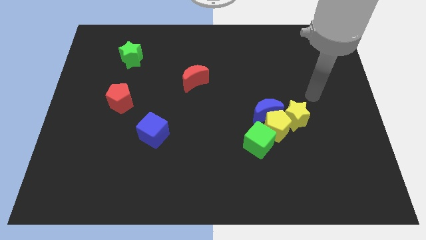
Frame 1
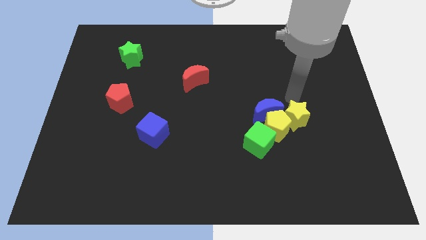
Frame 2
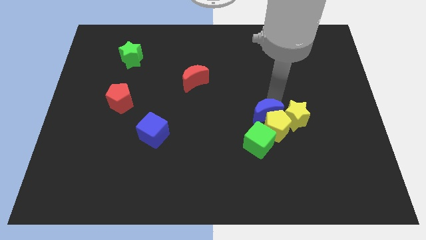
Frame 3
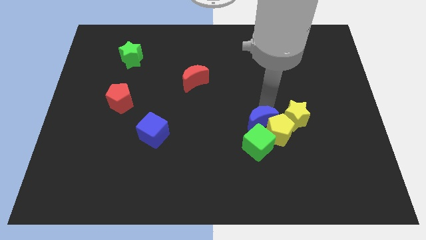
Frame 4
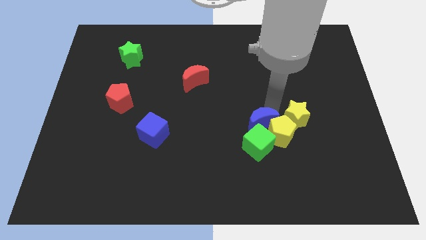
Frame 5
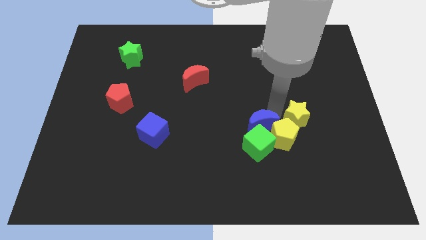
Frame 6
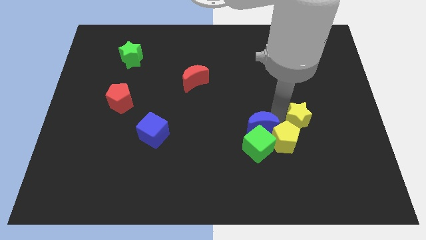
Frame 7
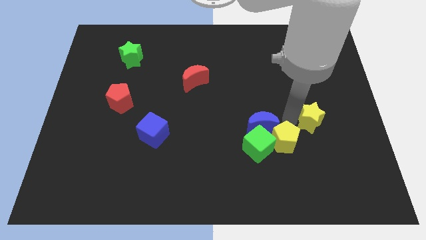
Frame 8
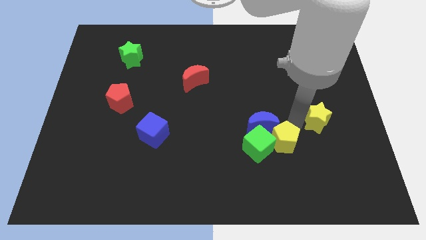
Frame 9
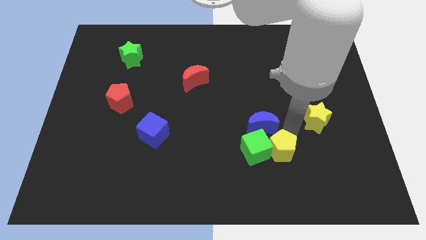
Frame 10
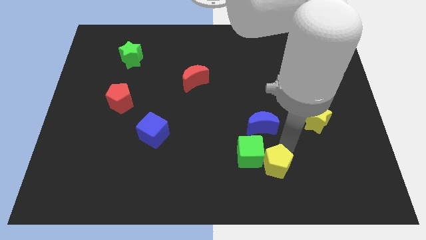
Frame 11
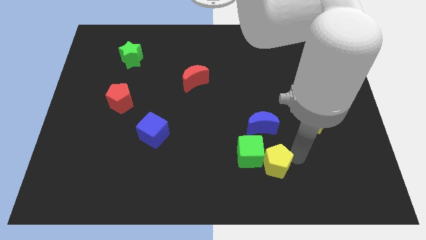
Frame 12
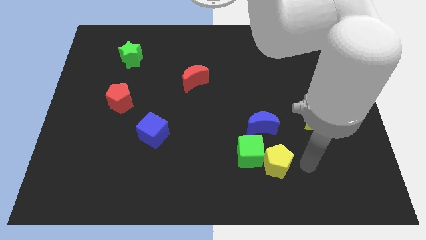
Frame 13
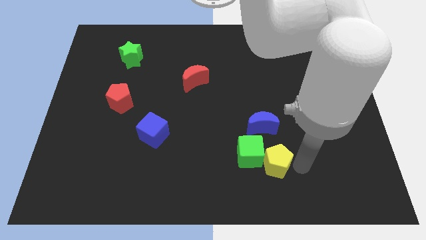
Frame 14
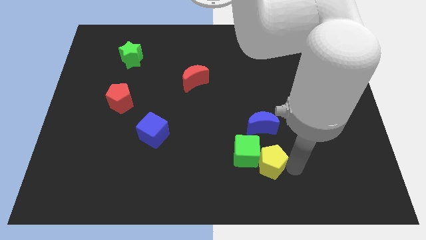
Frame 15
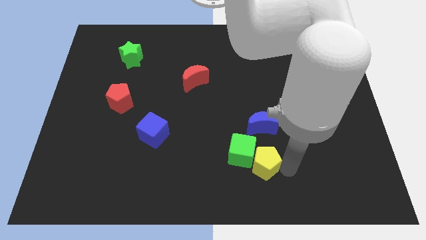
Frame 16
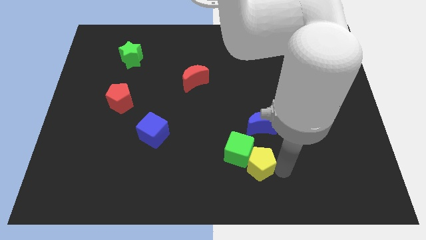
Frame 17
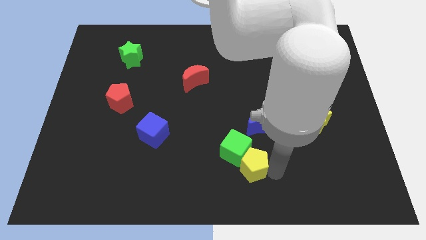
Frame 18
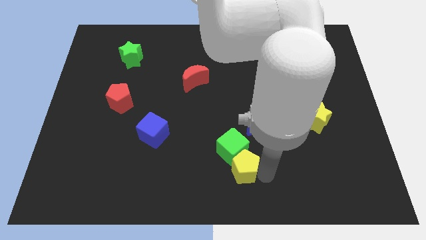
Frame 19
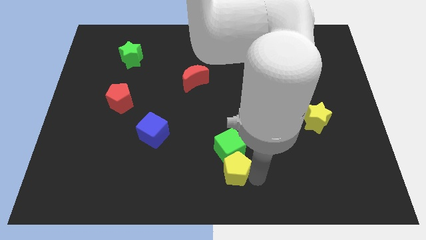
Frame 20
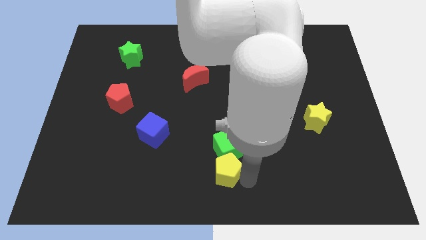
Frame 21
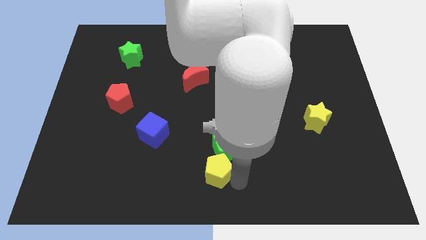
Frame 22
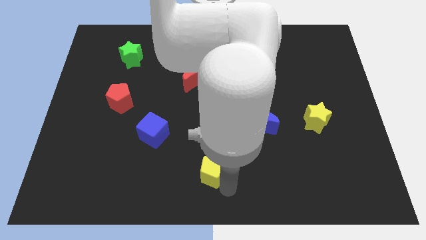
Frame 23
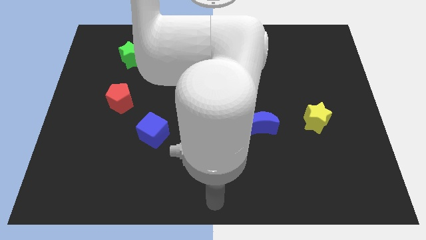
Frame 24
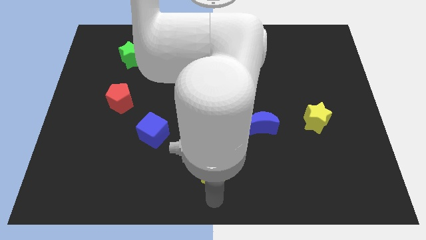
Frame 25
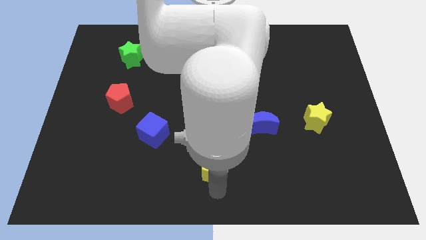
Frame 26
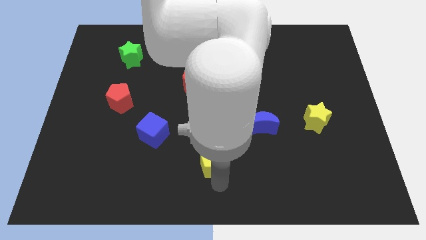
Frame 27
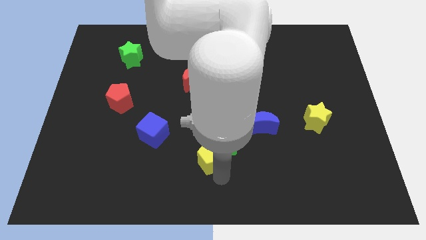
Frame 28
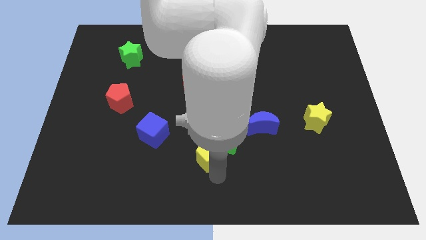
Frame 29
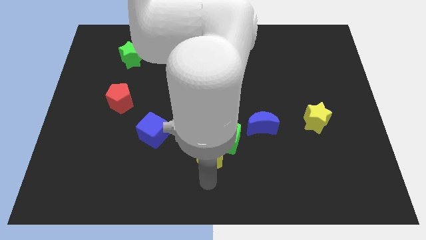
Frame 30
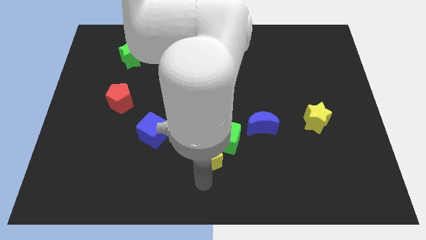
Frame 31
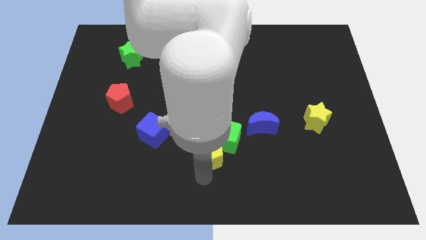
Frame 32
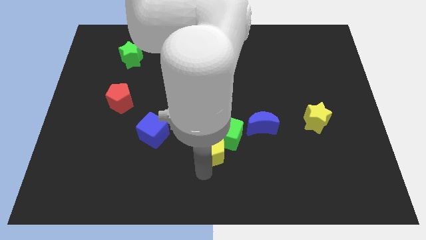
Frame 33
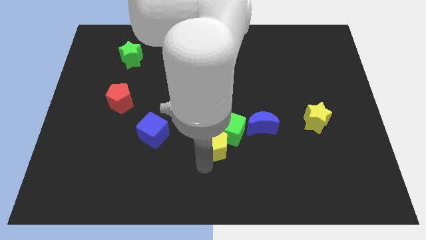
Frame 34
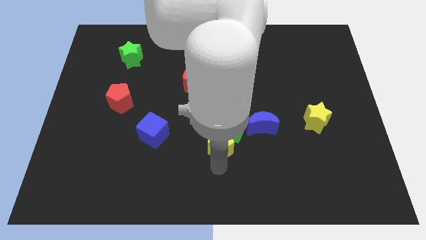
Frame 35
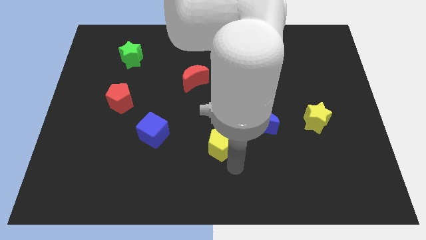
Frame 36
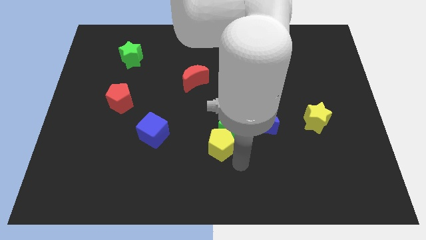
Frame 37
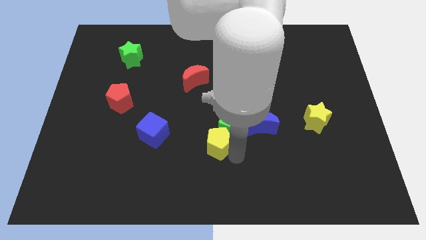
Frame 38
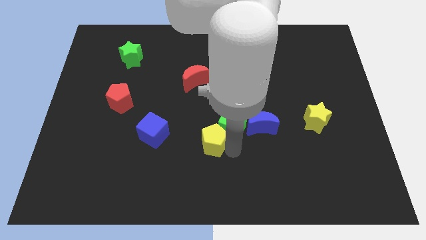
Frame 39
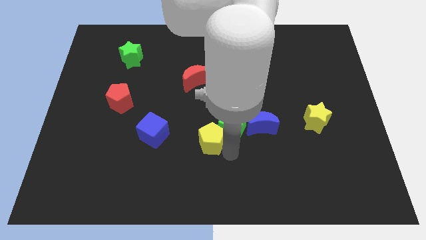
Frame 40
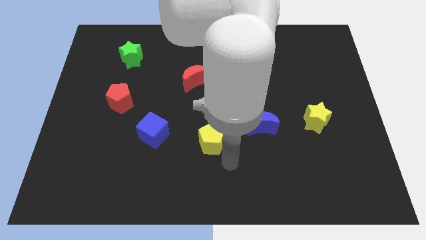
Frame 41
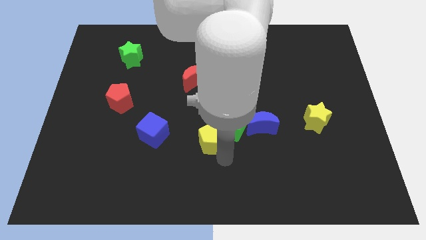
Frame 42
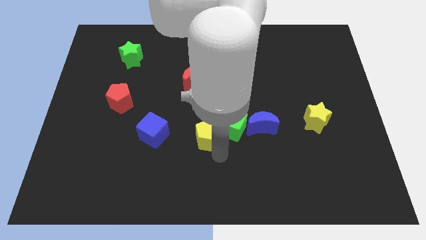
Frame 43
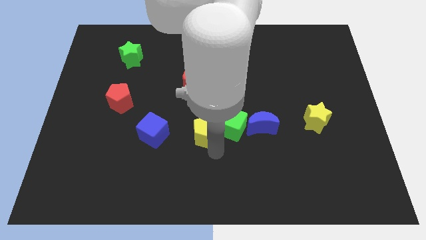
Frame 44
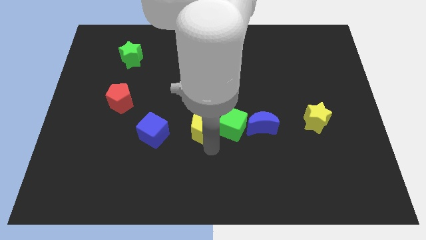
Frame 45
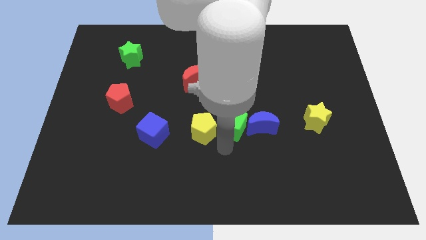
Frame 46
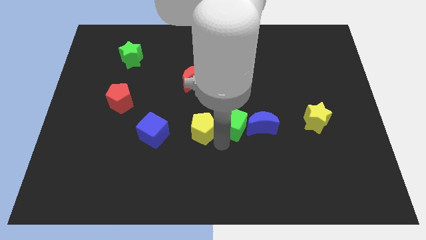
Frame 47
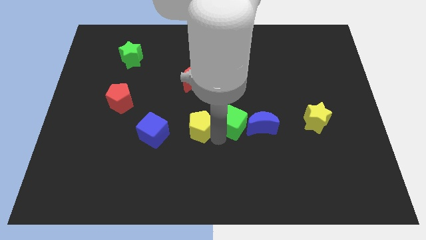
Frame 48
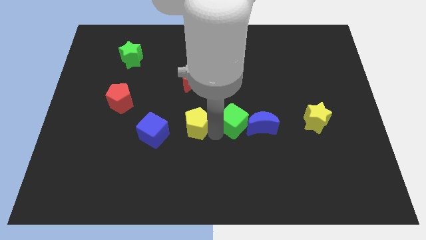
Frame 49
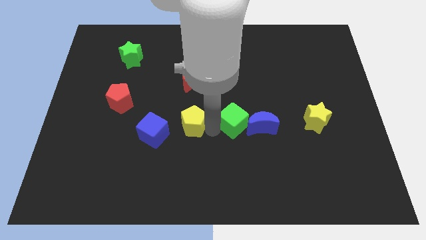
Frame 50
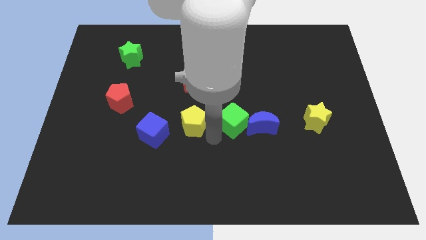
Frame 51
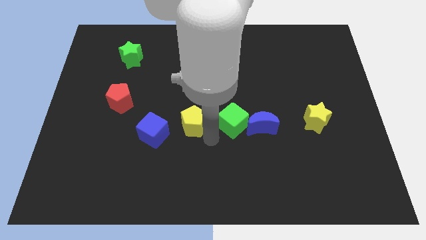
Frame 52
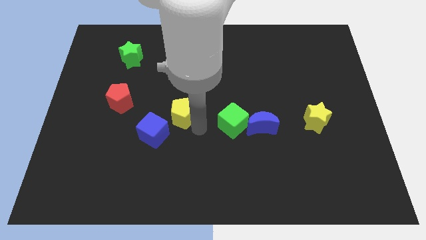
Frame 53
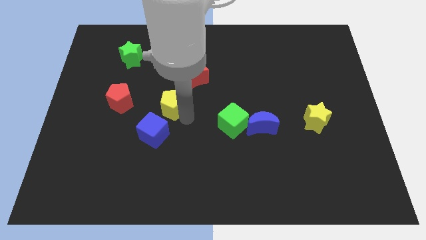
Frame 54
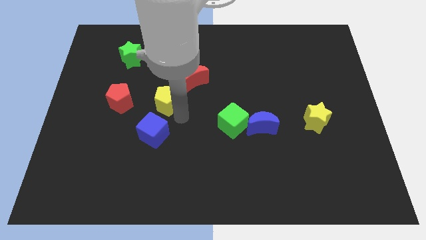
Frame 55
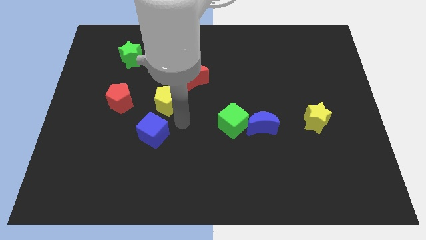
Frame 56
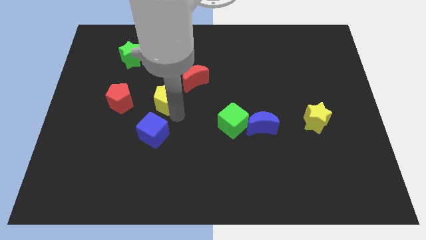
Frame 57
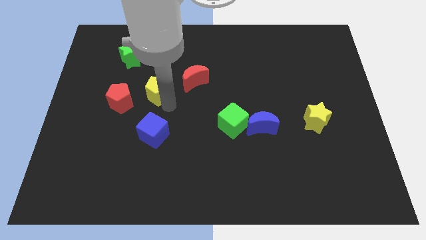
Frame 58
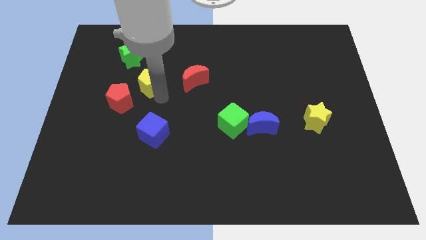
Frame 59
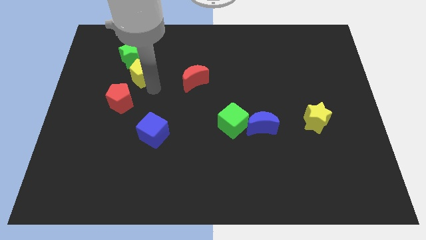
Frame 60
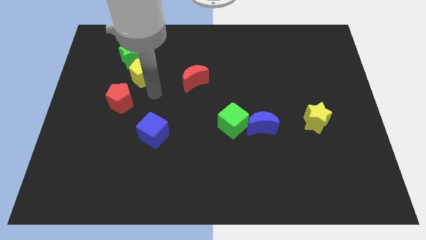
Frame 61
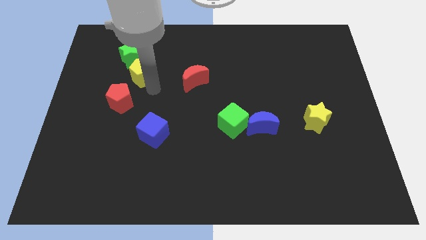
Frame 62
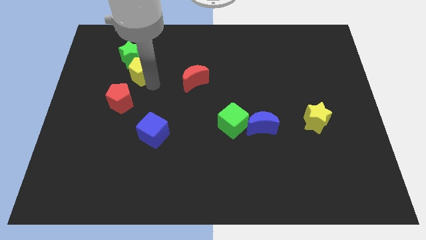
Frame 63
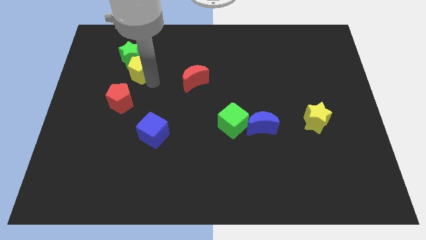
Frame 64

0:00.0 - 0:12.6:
move the yellow pentagon next to the green star

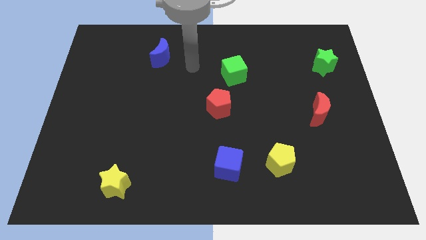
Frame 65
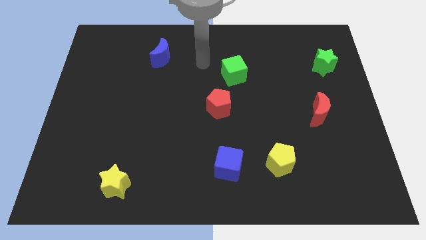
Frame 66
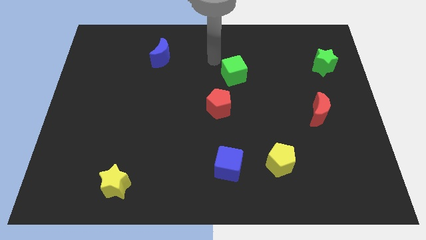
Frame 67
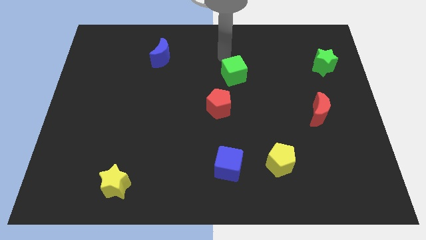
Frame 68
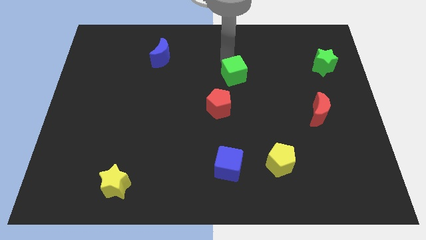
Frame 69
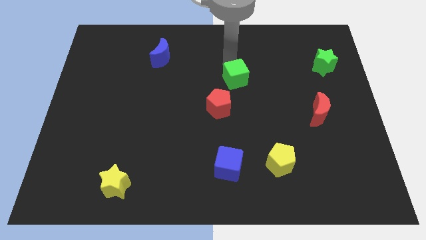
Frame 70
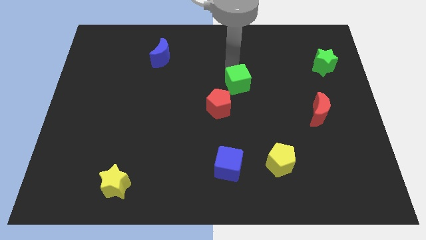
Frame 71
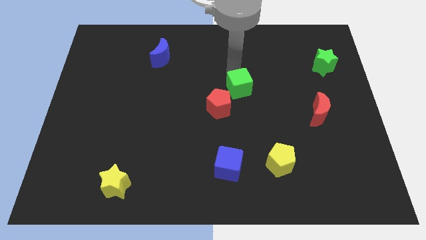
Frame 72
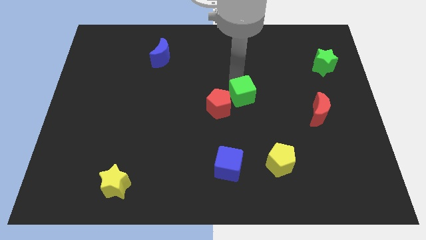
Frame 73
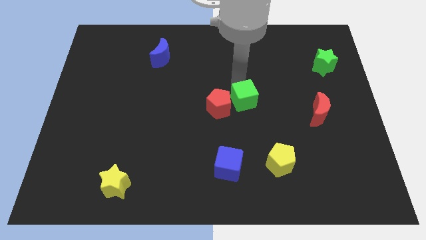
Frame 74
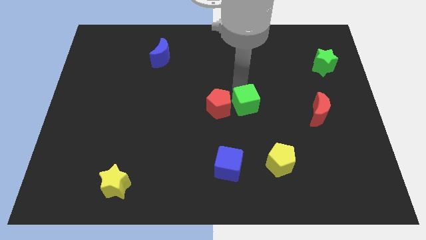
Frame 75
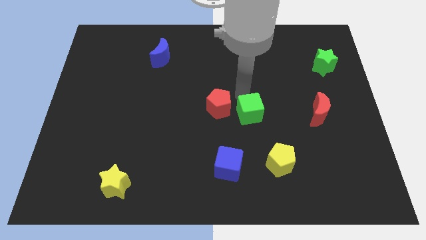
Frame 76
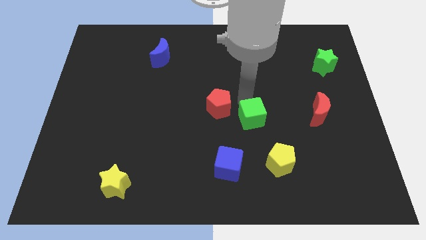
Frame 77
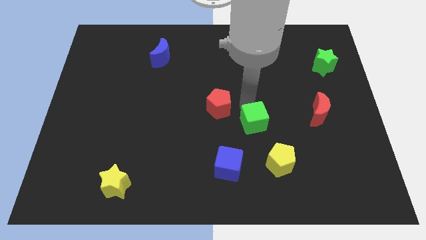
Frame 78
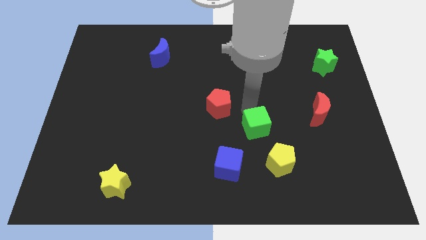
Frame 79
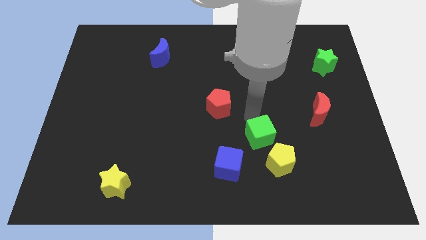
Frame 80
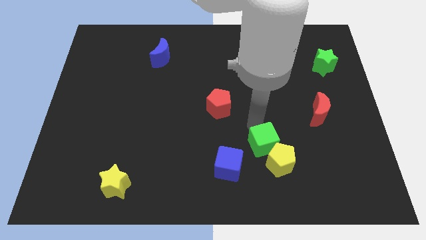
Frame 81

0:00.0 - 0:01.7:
put the green cube close to the yellow pentagon
